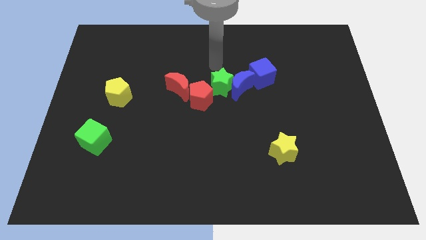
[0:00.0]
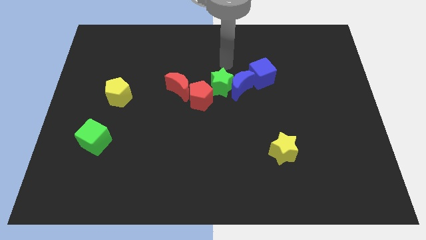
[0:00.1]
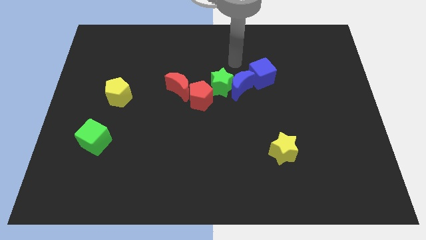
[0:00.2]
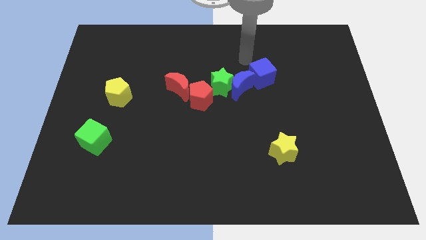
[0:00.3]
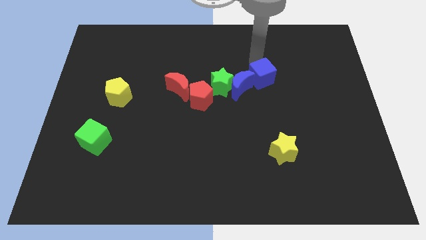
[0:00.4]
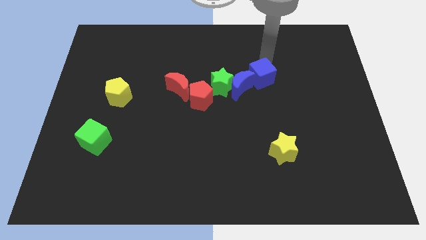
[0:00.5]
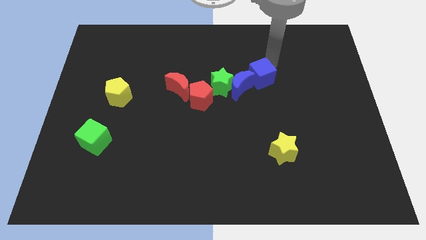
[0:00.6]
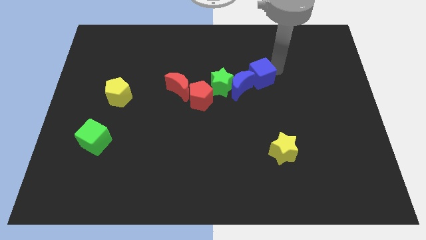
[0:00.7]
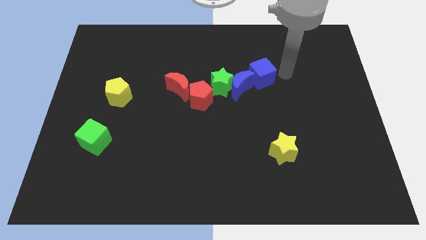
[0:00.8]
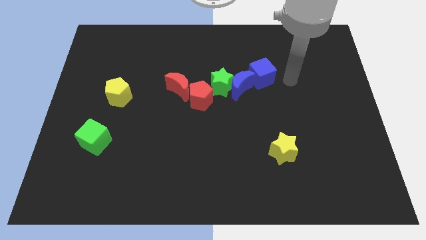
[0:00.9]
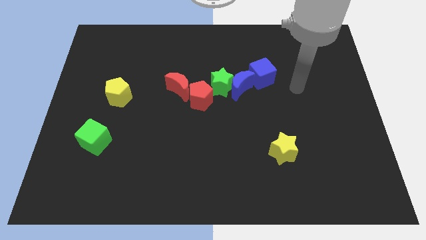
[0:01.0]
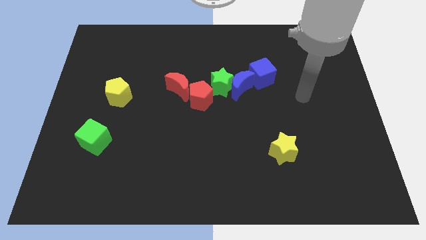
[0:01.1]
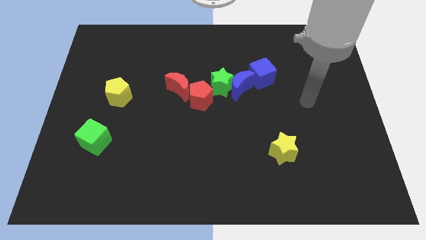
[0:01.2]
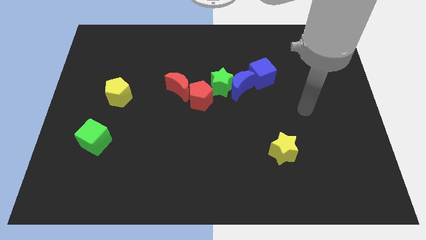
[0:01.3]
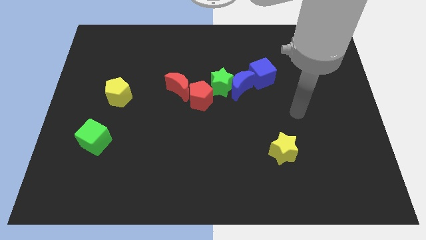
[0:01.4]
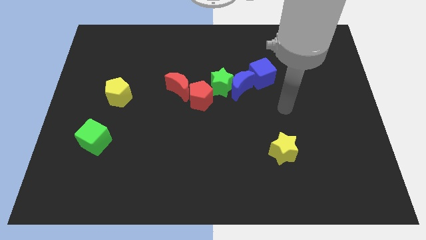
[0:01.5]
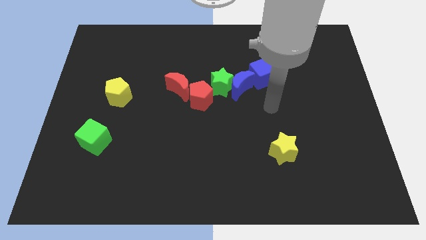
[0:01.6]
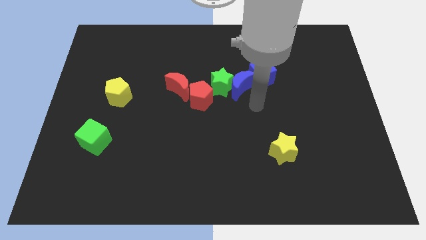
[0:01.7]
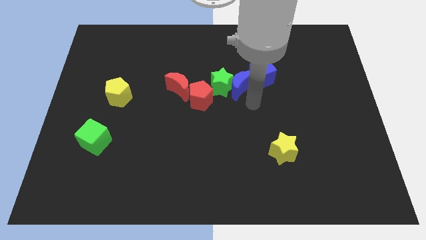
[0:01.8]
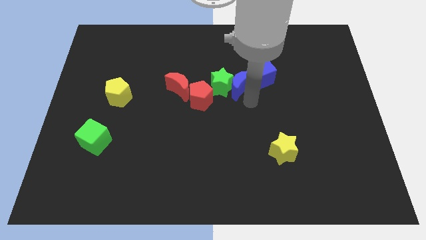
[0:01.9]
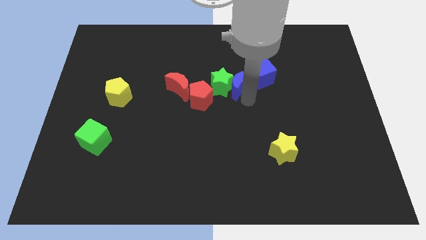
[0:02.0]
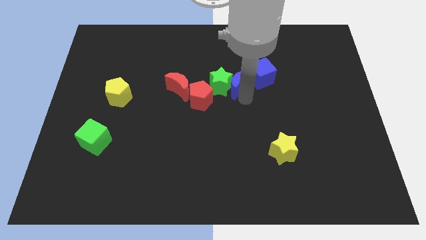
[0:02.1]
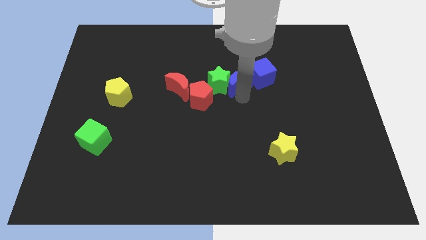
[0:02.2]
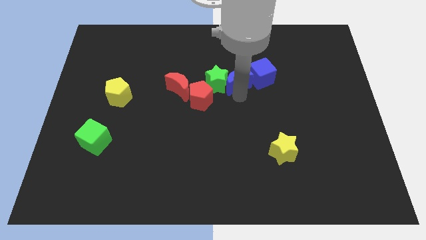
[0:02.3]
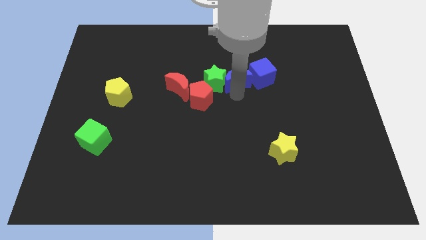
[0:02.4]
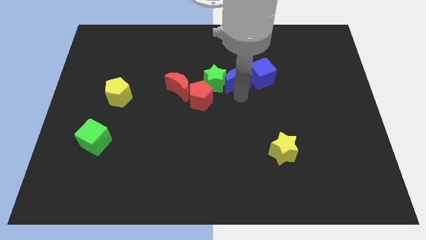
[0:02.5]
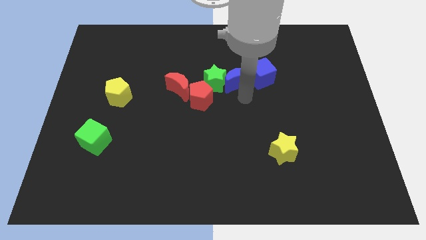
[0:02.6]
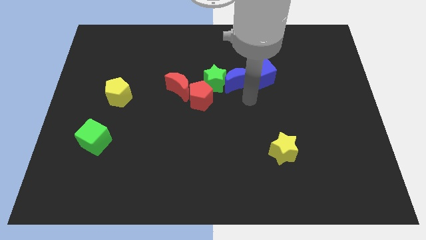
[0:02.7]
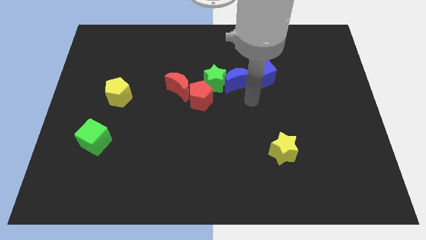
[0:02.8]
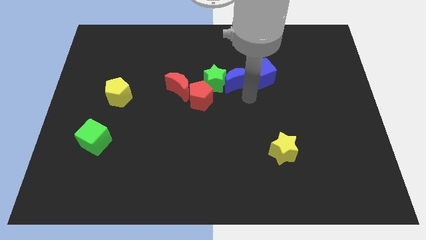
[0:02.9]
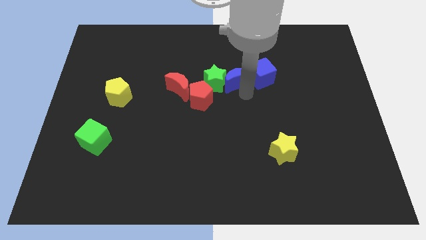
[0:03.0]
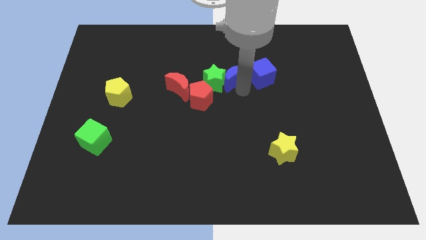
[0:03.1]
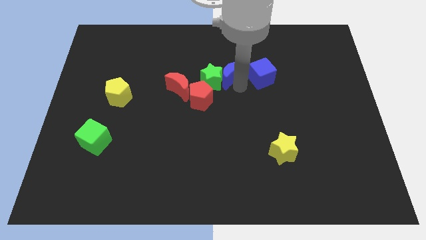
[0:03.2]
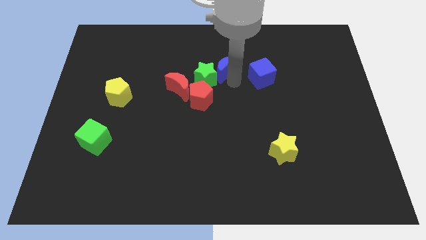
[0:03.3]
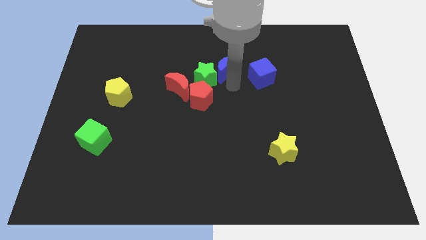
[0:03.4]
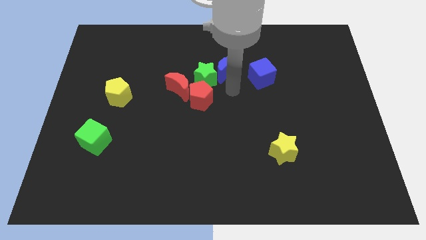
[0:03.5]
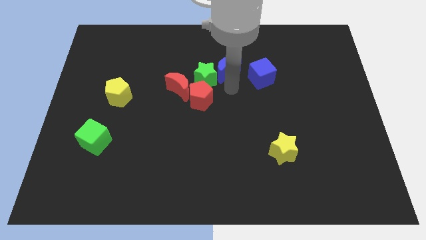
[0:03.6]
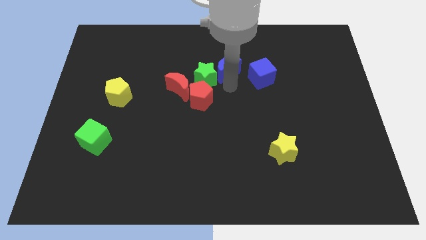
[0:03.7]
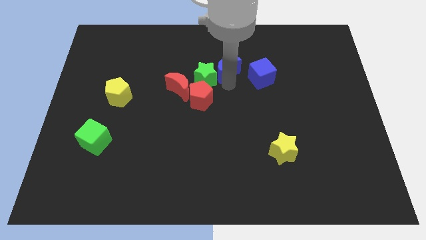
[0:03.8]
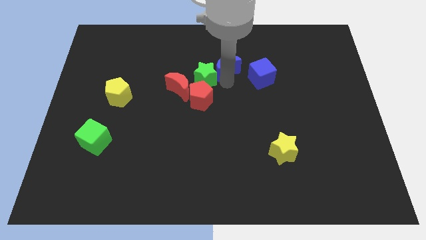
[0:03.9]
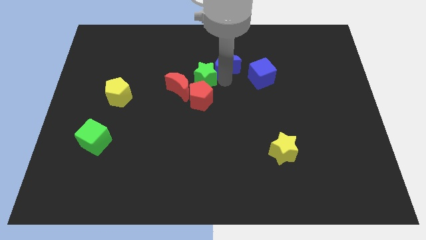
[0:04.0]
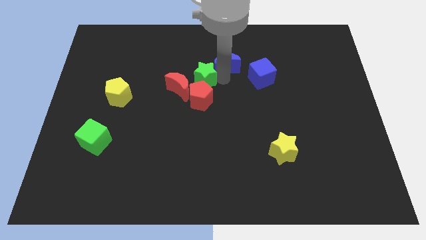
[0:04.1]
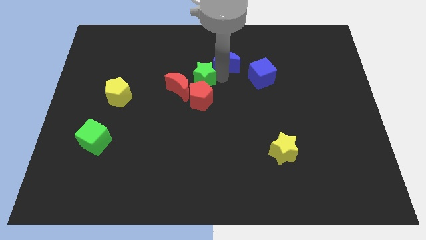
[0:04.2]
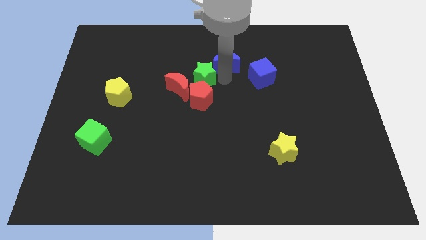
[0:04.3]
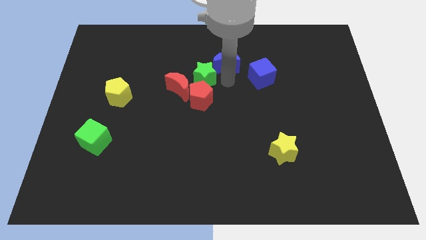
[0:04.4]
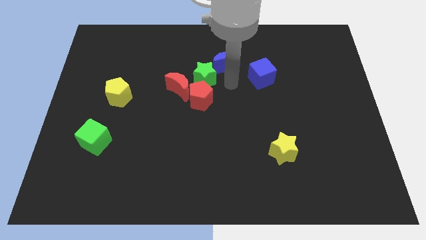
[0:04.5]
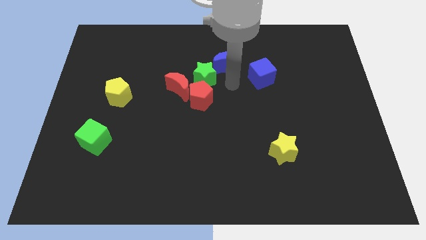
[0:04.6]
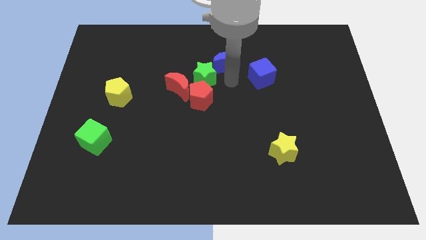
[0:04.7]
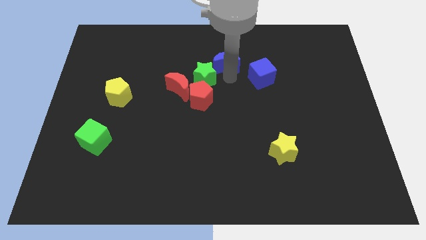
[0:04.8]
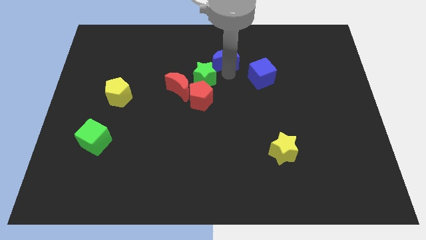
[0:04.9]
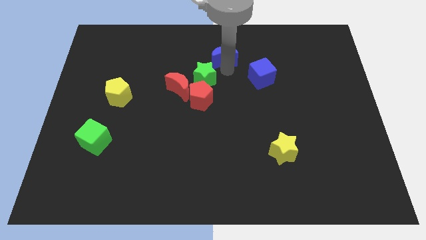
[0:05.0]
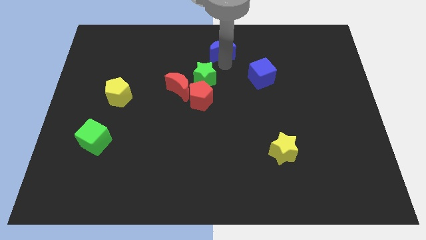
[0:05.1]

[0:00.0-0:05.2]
move the blue moon to the top

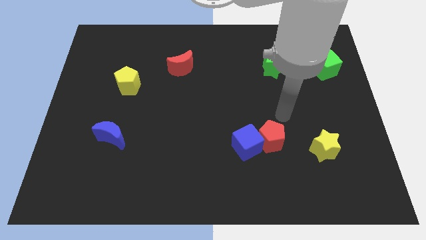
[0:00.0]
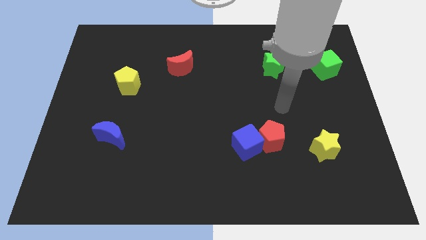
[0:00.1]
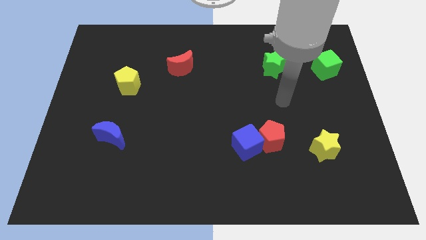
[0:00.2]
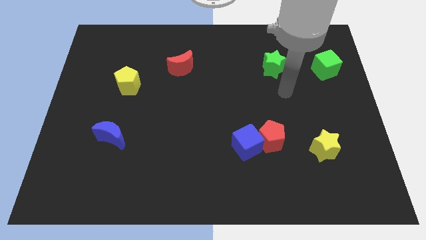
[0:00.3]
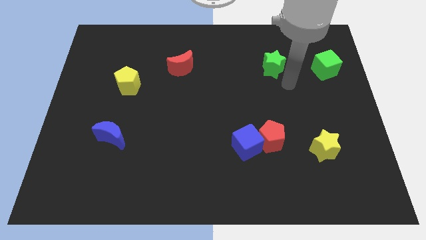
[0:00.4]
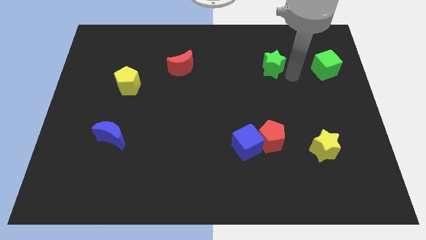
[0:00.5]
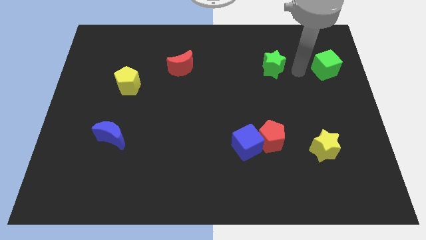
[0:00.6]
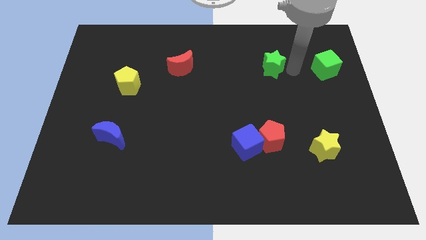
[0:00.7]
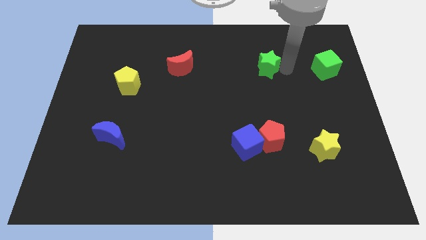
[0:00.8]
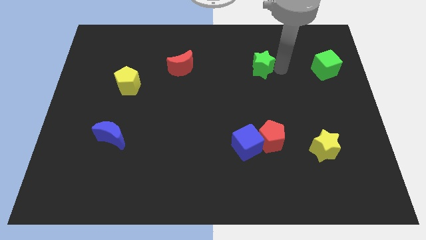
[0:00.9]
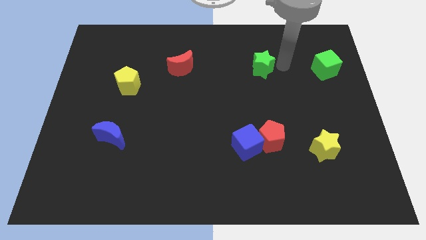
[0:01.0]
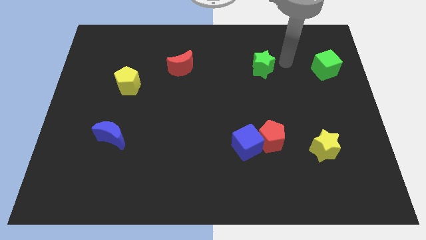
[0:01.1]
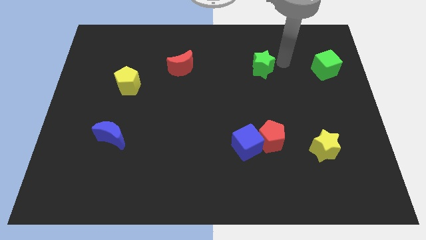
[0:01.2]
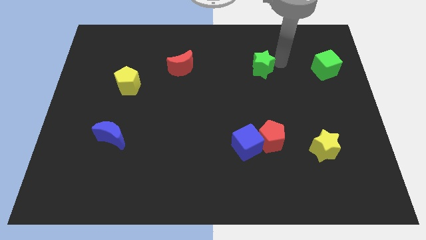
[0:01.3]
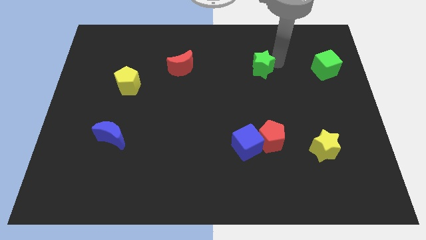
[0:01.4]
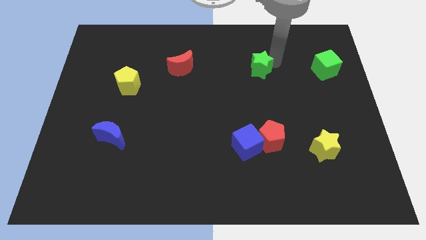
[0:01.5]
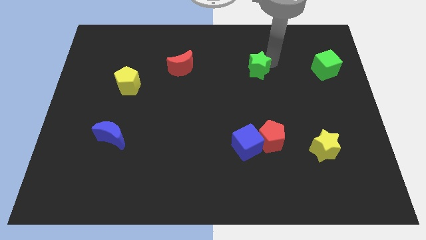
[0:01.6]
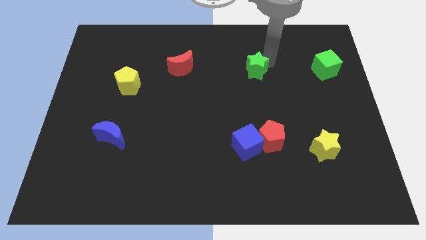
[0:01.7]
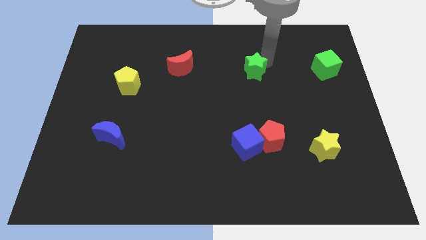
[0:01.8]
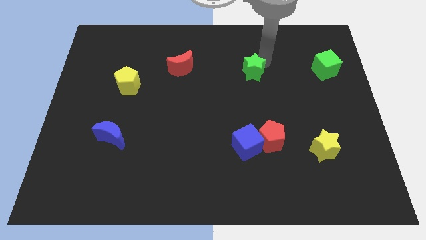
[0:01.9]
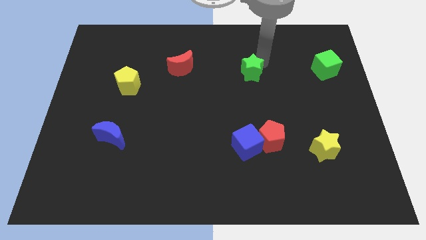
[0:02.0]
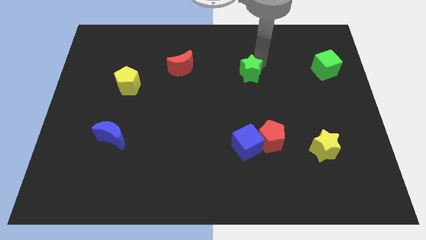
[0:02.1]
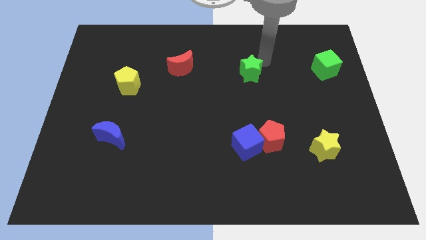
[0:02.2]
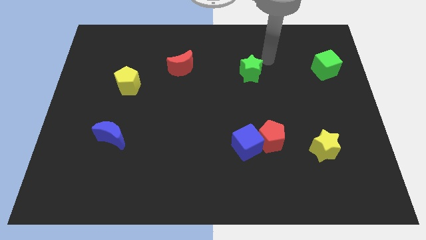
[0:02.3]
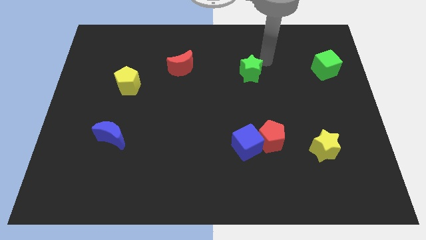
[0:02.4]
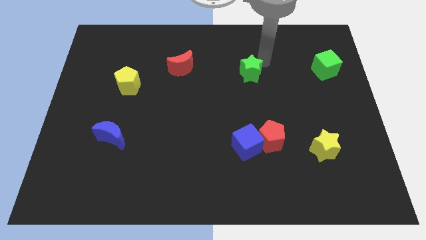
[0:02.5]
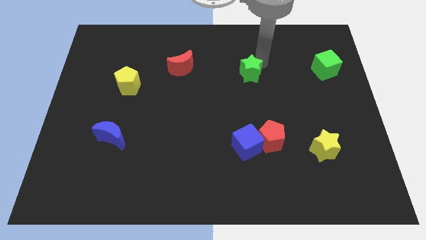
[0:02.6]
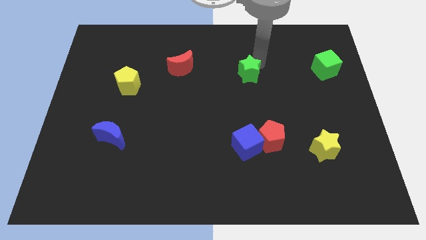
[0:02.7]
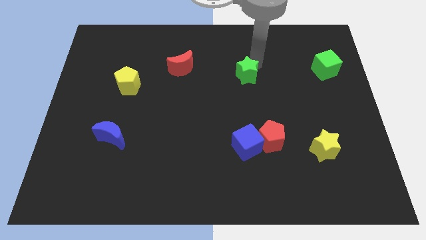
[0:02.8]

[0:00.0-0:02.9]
slide the green star to the center
